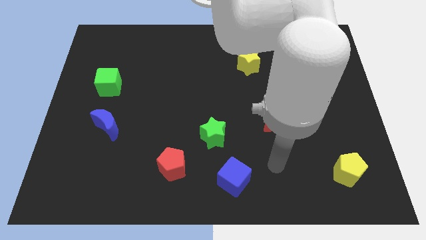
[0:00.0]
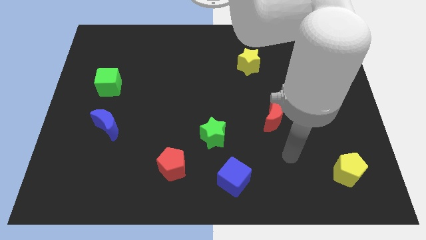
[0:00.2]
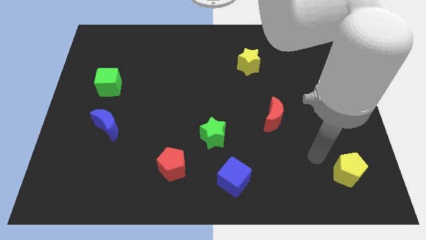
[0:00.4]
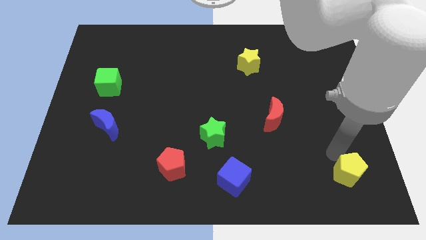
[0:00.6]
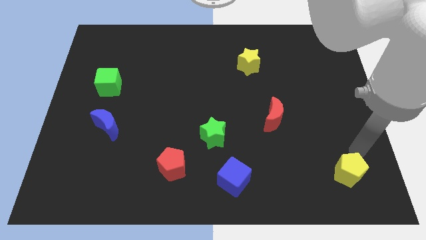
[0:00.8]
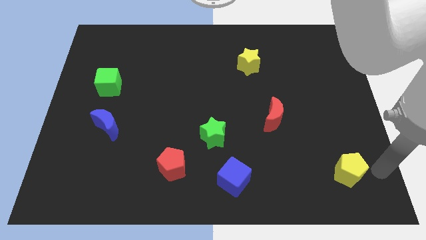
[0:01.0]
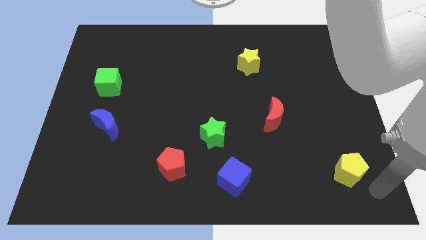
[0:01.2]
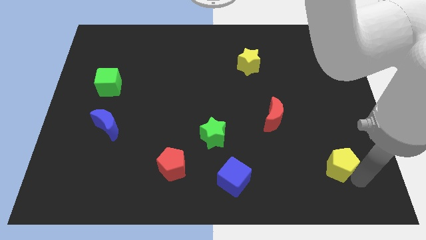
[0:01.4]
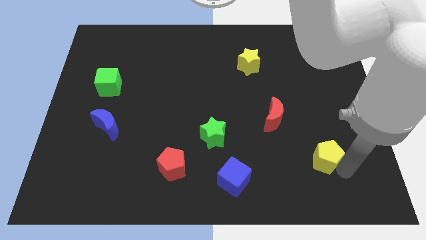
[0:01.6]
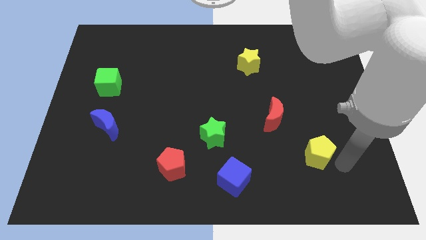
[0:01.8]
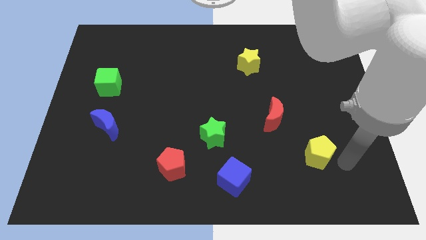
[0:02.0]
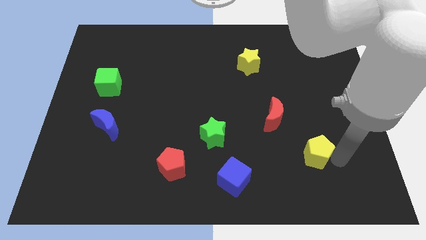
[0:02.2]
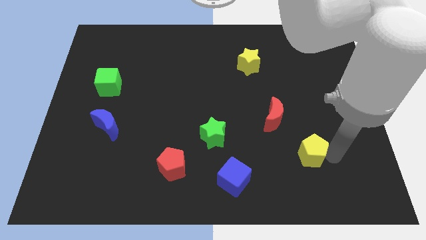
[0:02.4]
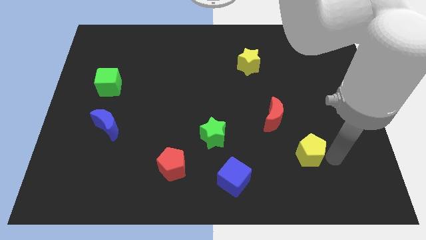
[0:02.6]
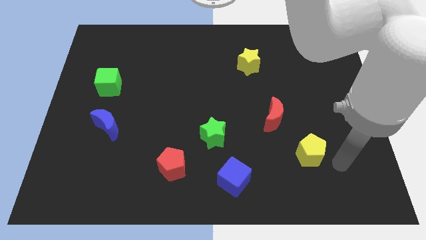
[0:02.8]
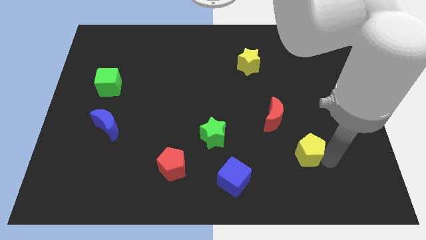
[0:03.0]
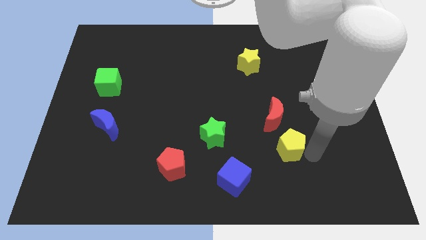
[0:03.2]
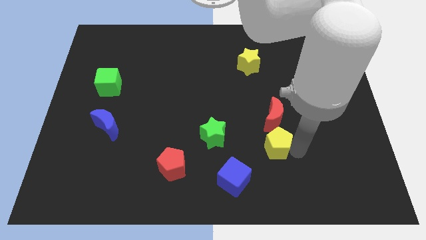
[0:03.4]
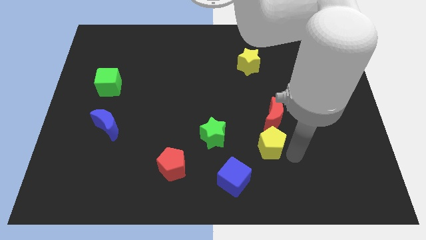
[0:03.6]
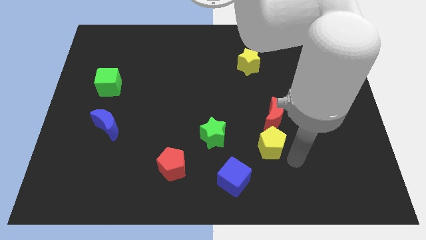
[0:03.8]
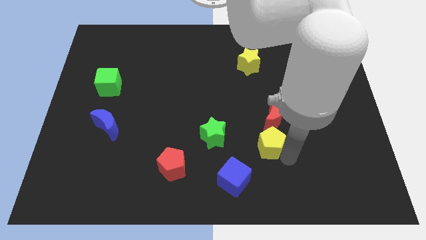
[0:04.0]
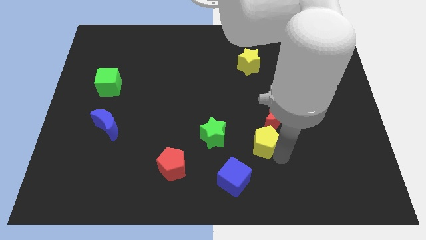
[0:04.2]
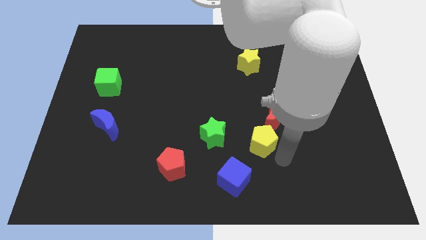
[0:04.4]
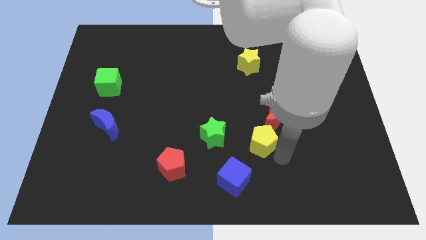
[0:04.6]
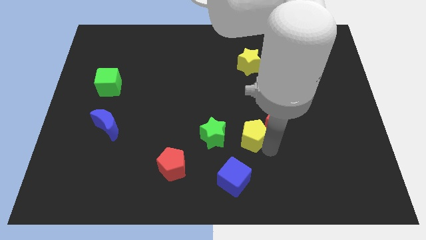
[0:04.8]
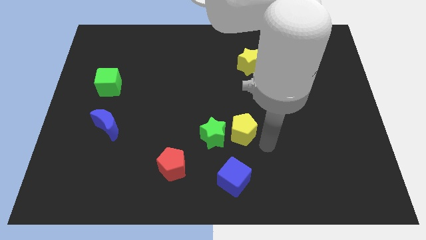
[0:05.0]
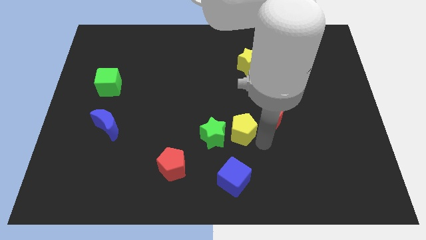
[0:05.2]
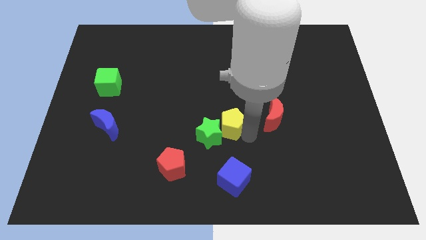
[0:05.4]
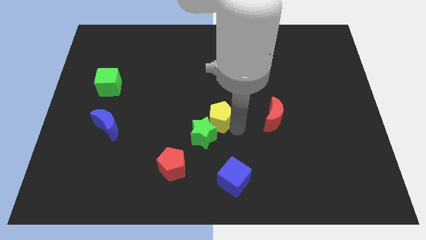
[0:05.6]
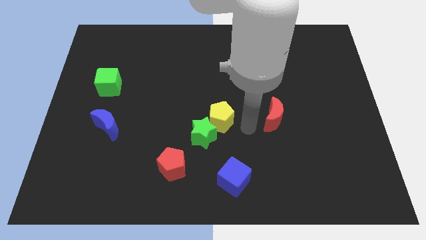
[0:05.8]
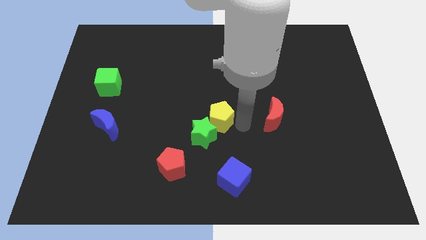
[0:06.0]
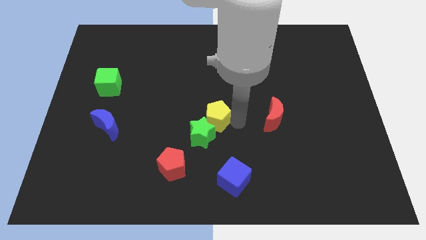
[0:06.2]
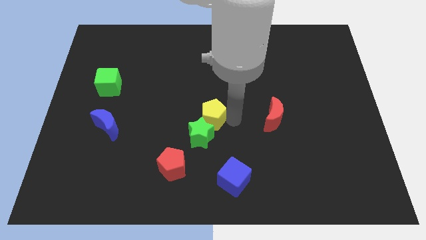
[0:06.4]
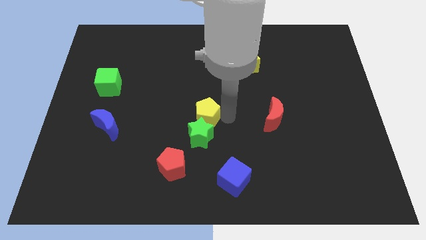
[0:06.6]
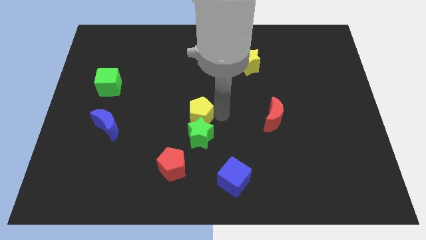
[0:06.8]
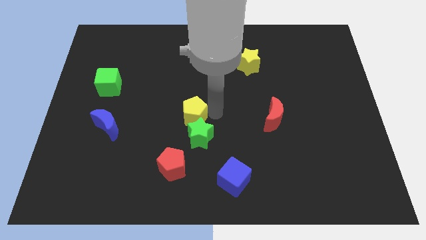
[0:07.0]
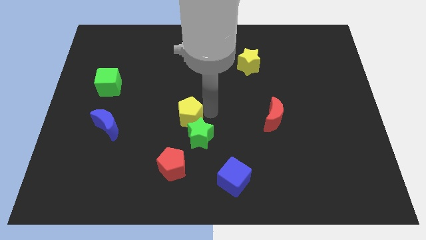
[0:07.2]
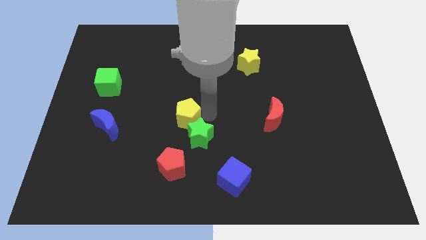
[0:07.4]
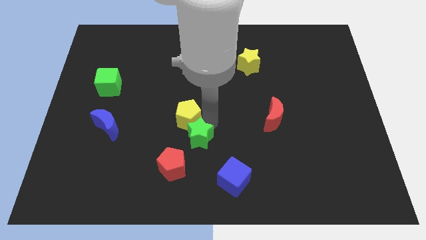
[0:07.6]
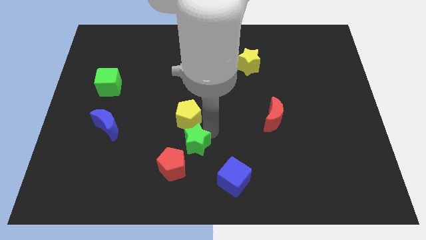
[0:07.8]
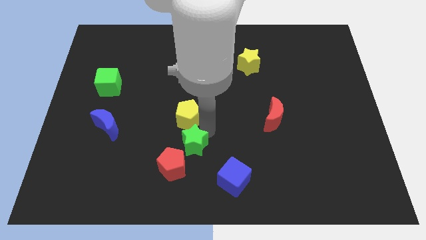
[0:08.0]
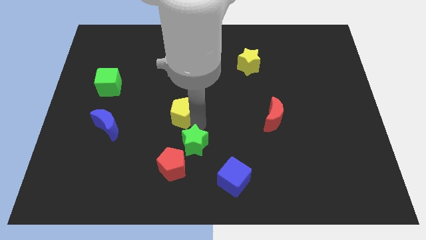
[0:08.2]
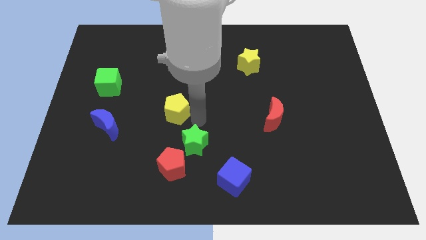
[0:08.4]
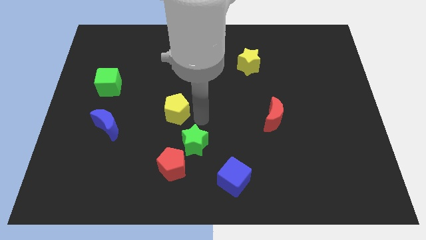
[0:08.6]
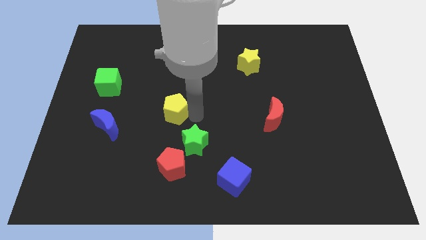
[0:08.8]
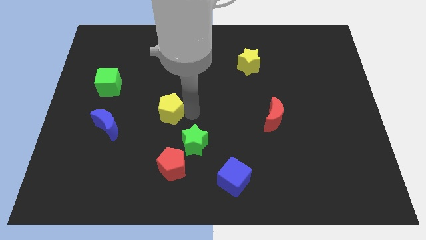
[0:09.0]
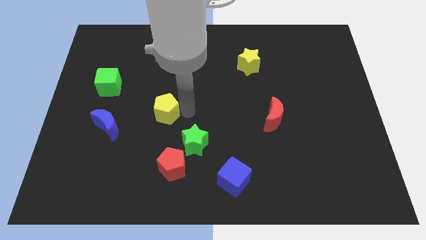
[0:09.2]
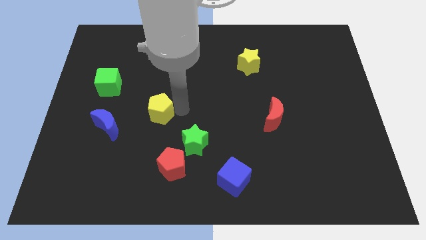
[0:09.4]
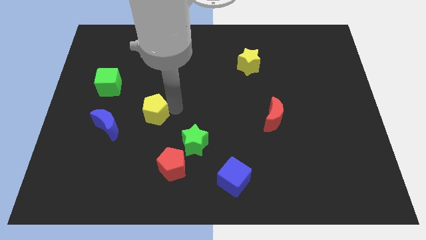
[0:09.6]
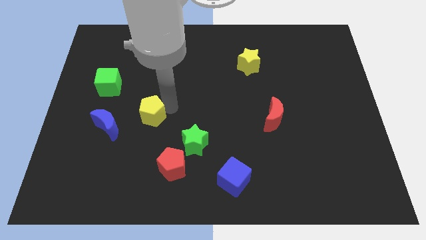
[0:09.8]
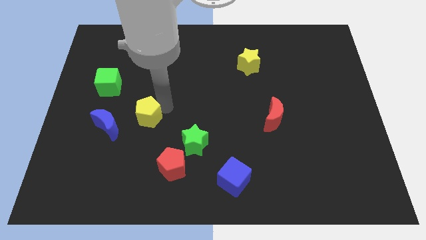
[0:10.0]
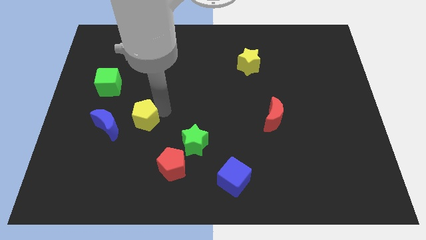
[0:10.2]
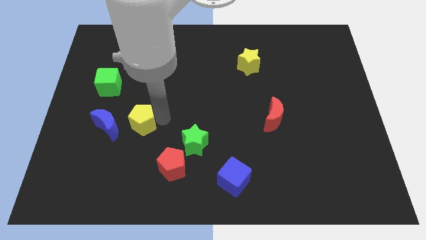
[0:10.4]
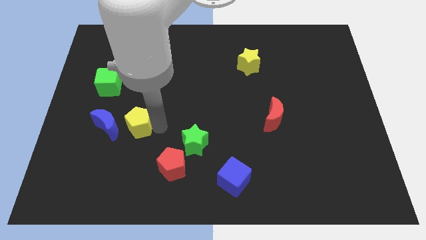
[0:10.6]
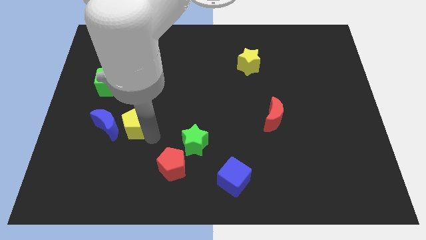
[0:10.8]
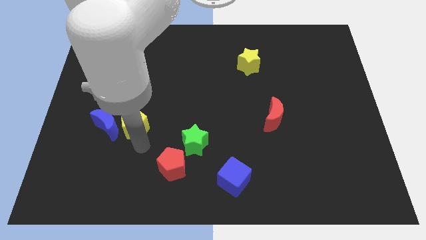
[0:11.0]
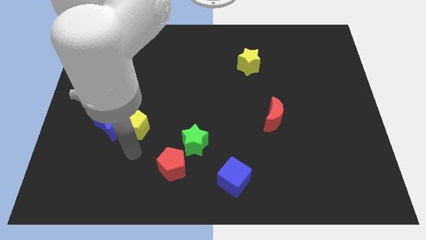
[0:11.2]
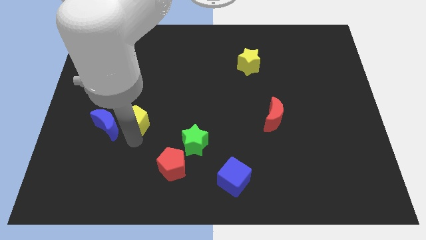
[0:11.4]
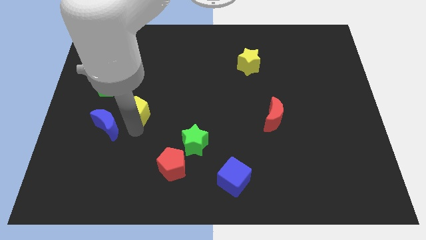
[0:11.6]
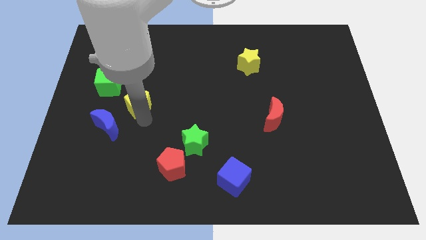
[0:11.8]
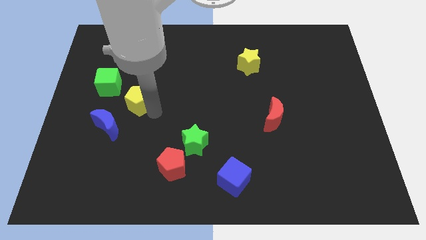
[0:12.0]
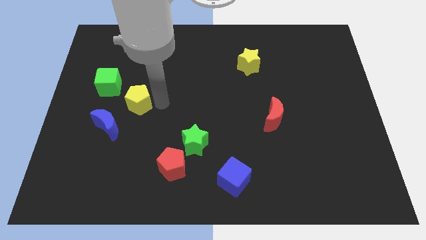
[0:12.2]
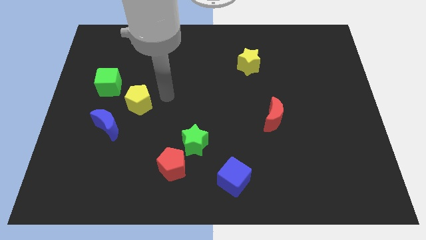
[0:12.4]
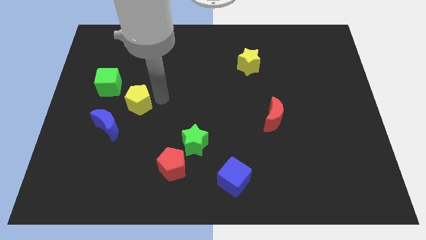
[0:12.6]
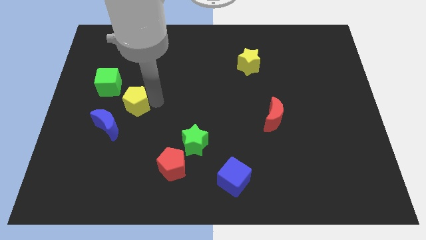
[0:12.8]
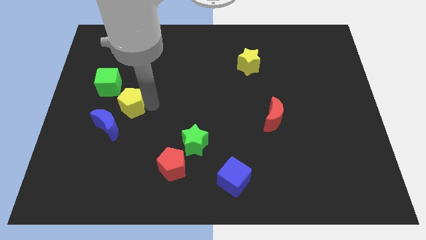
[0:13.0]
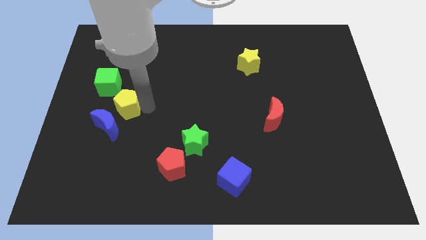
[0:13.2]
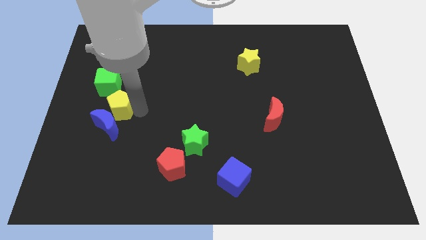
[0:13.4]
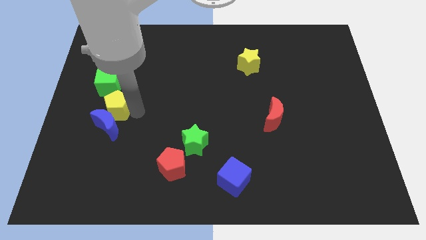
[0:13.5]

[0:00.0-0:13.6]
move the yellow pentagon to the top left side of the blue moon

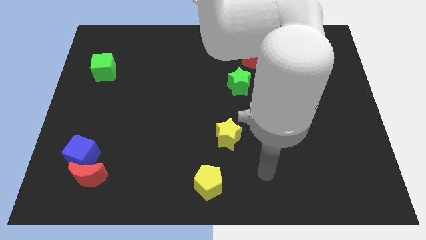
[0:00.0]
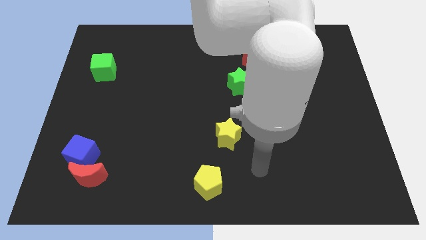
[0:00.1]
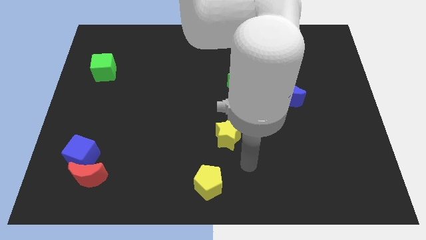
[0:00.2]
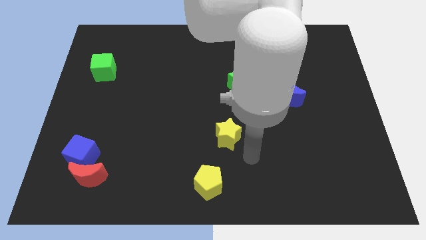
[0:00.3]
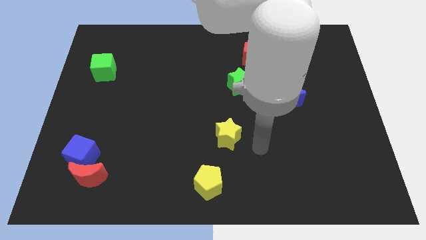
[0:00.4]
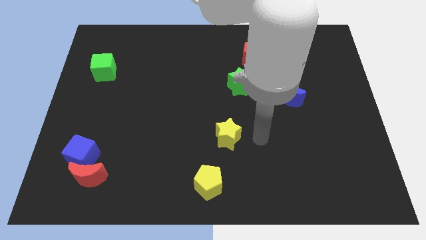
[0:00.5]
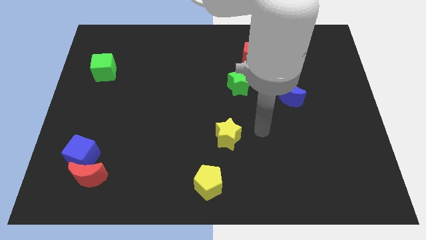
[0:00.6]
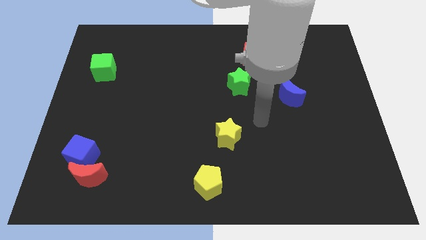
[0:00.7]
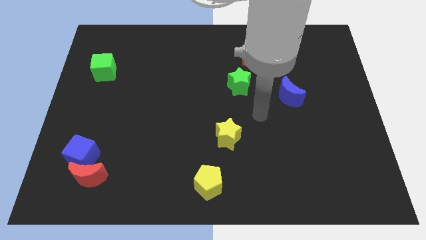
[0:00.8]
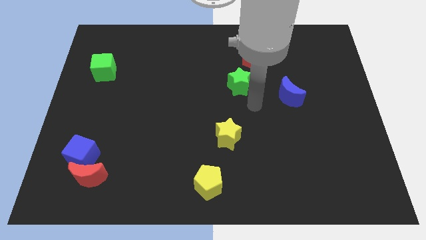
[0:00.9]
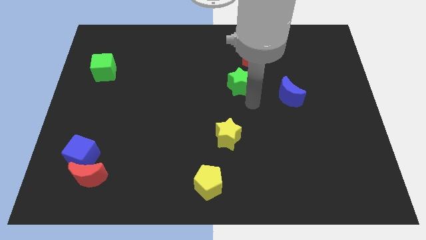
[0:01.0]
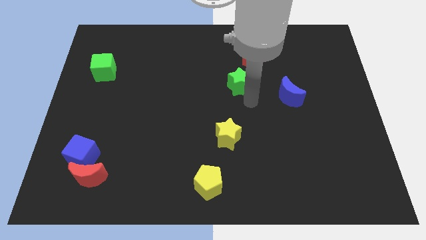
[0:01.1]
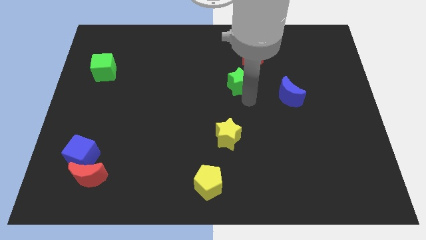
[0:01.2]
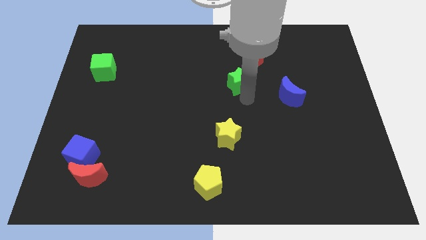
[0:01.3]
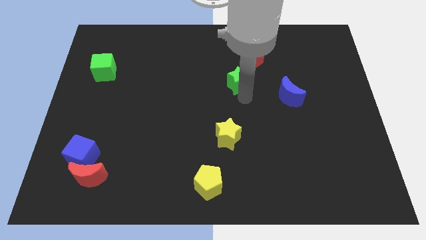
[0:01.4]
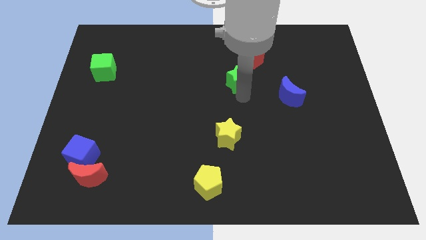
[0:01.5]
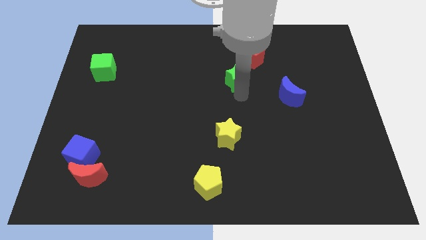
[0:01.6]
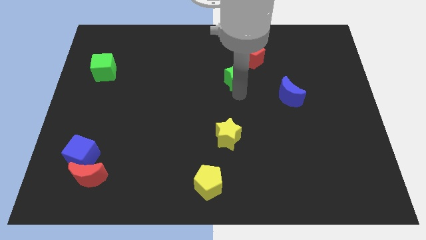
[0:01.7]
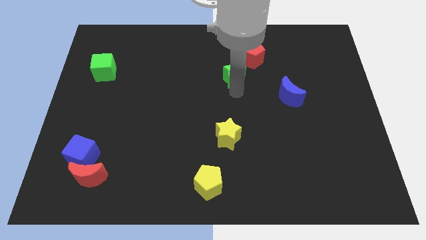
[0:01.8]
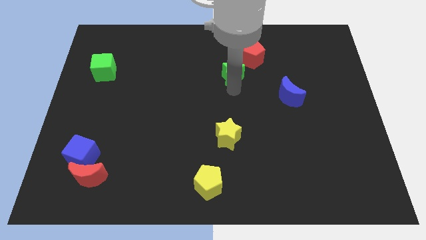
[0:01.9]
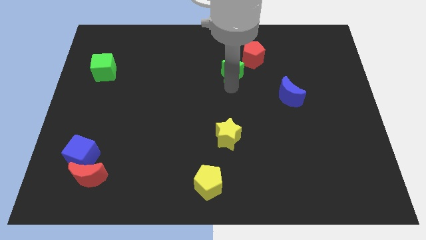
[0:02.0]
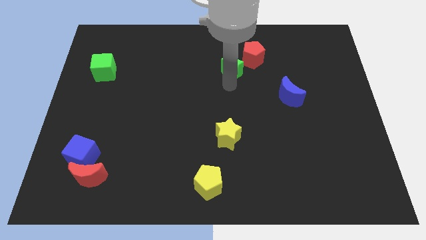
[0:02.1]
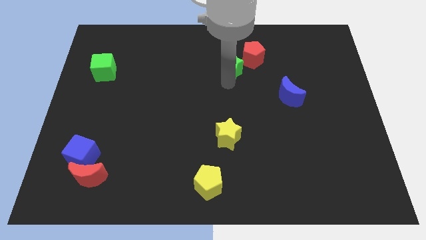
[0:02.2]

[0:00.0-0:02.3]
put the green star left of the red pentagon
